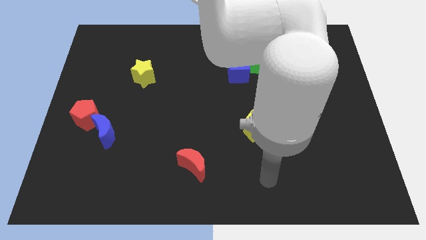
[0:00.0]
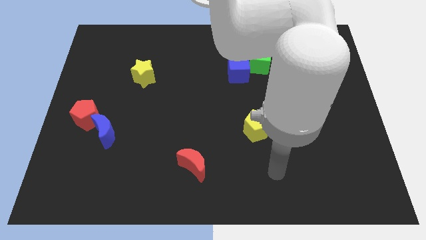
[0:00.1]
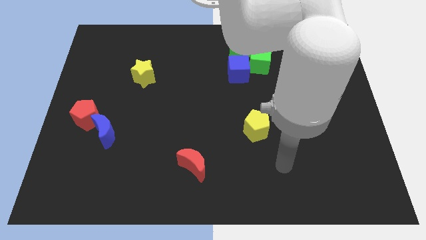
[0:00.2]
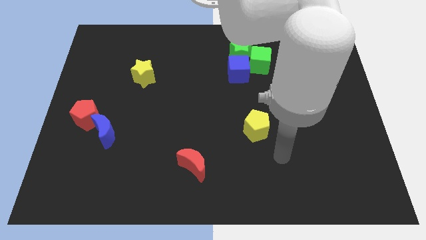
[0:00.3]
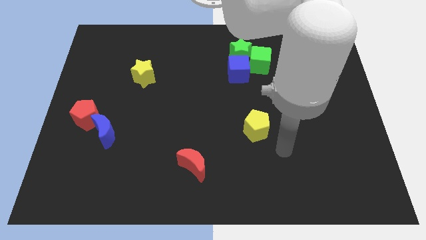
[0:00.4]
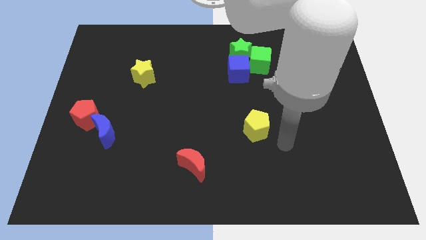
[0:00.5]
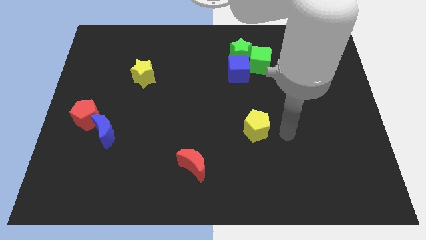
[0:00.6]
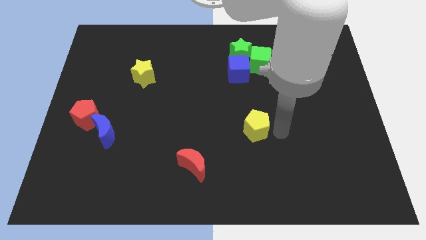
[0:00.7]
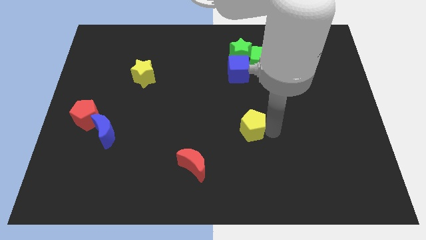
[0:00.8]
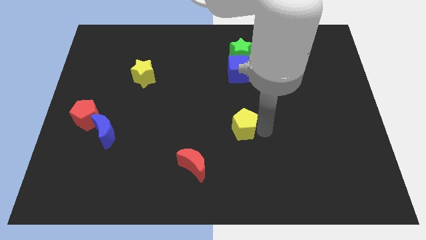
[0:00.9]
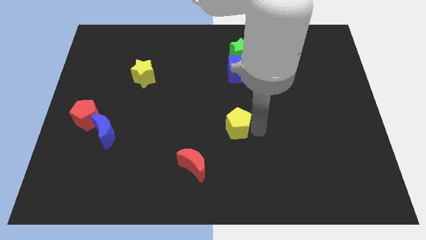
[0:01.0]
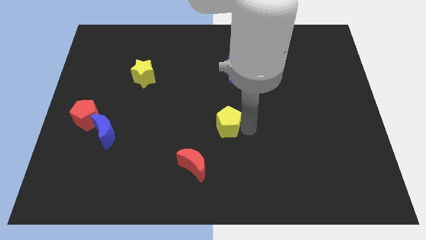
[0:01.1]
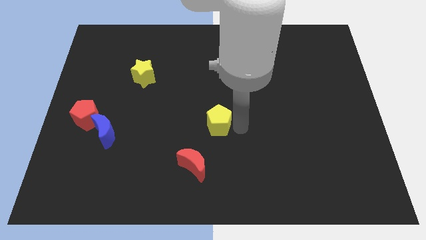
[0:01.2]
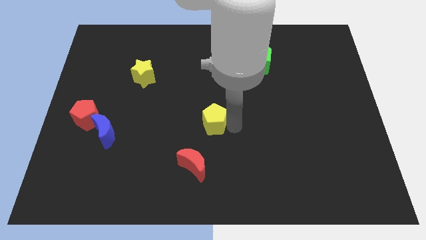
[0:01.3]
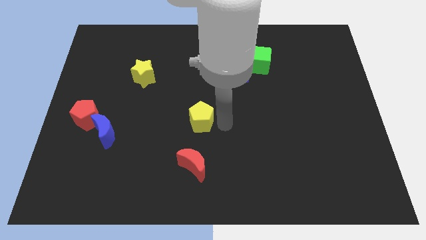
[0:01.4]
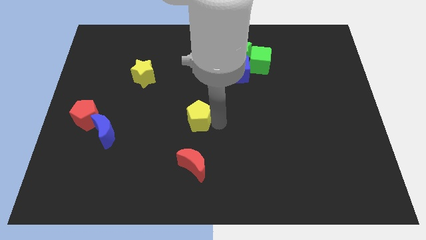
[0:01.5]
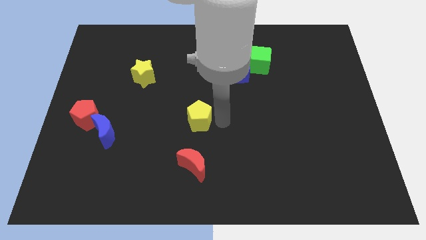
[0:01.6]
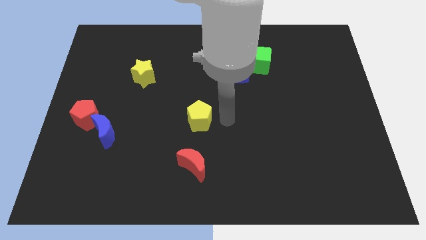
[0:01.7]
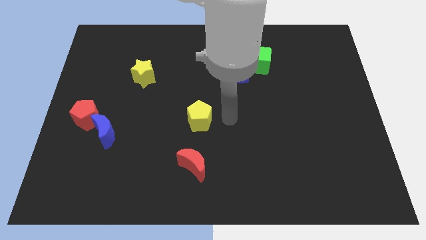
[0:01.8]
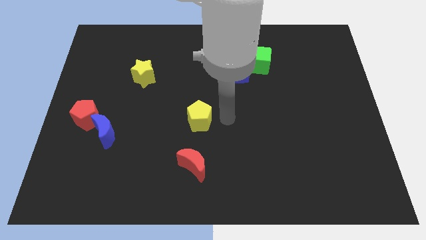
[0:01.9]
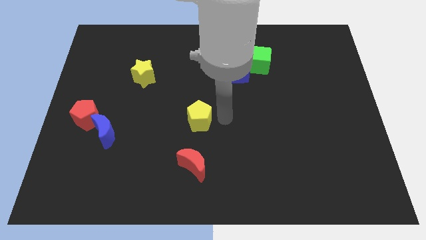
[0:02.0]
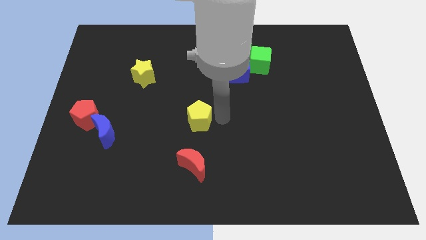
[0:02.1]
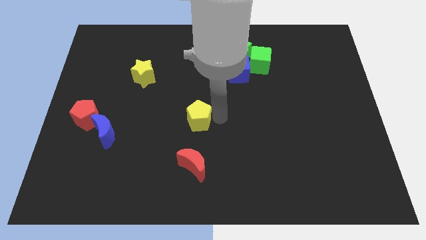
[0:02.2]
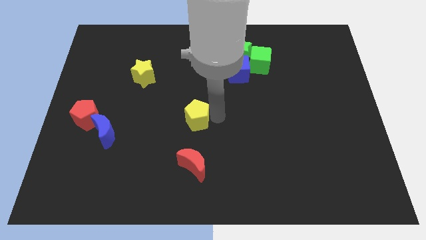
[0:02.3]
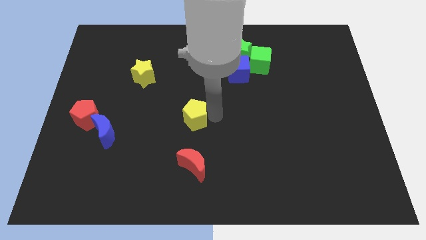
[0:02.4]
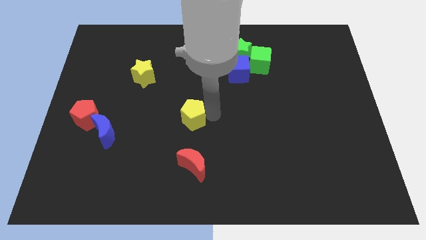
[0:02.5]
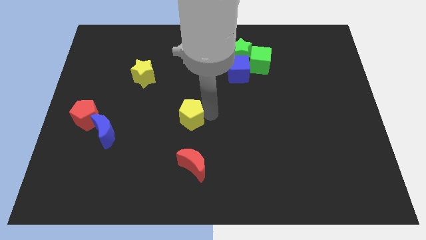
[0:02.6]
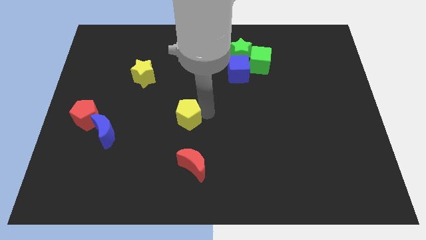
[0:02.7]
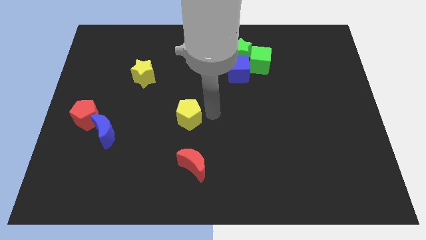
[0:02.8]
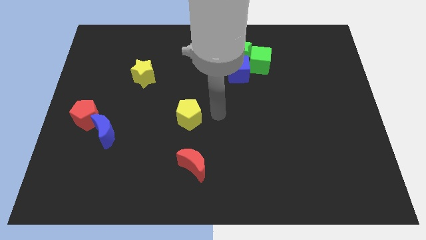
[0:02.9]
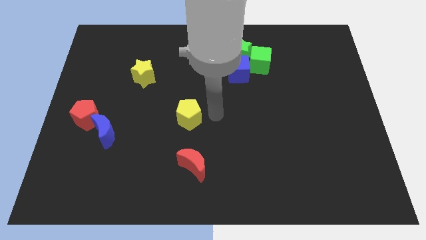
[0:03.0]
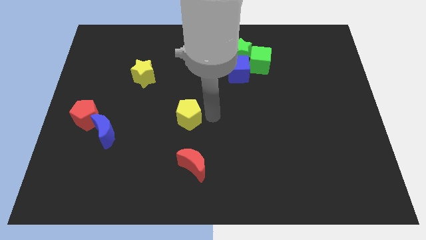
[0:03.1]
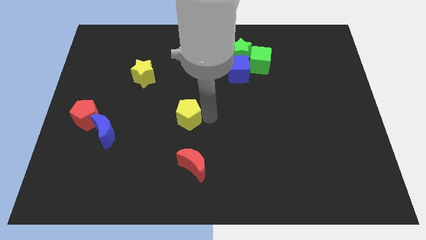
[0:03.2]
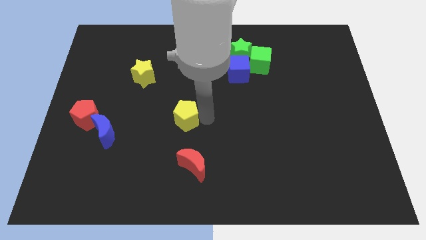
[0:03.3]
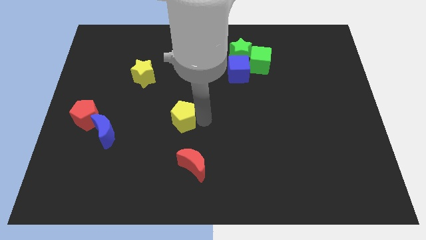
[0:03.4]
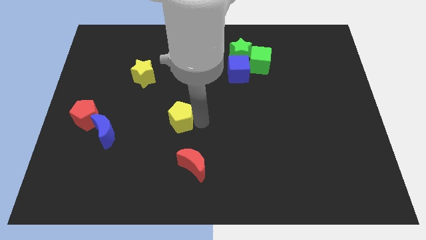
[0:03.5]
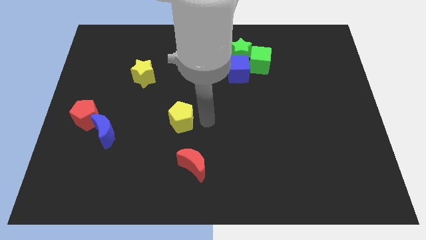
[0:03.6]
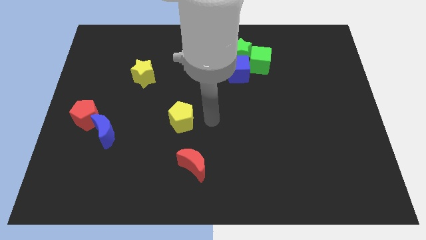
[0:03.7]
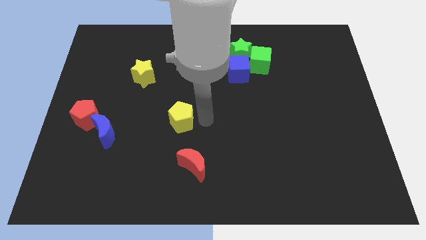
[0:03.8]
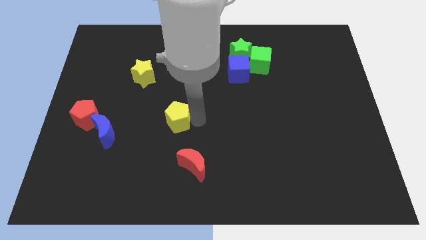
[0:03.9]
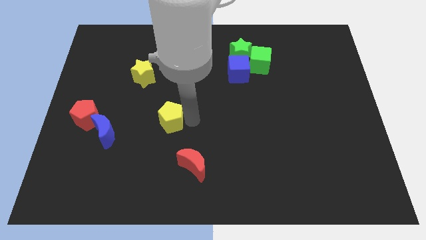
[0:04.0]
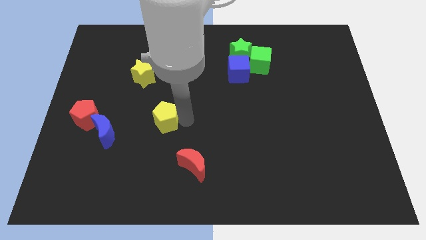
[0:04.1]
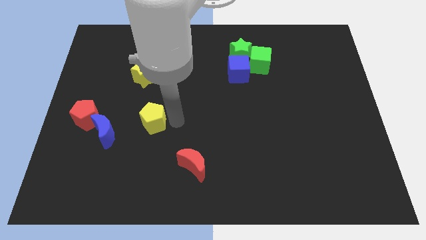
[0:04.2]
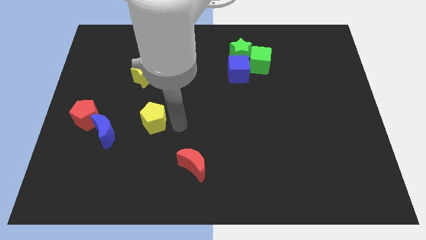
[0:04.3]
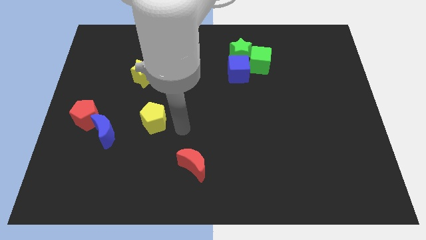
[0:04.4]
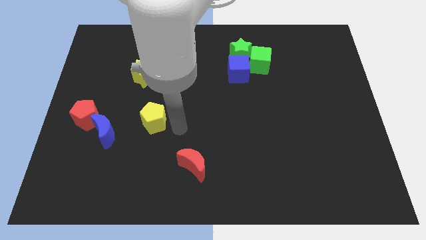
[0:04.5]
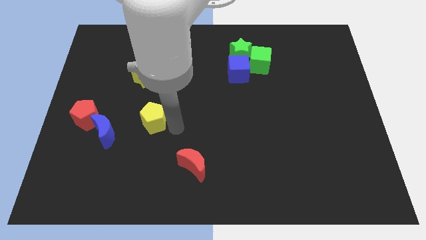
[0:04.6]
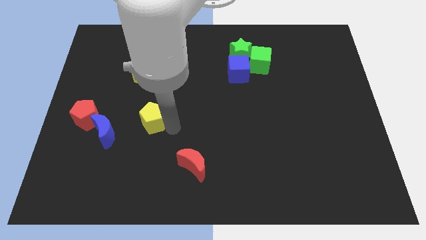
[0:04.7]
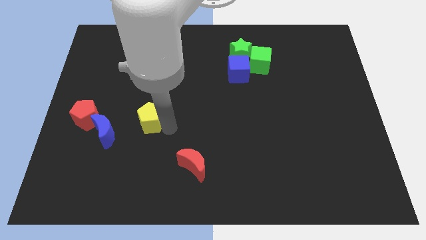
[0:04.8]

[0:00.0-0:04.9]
put the yellow pentagon diagonally up and to the right of the blue moon

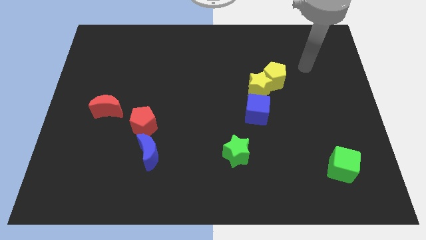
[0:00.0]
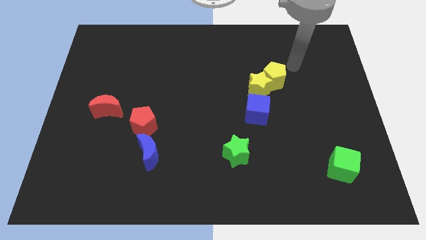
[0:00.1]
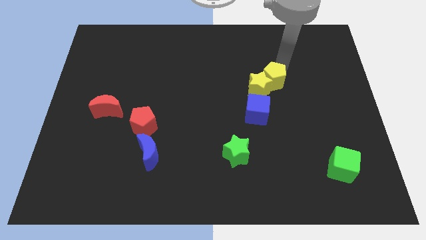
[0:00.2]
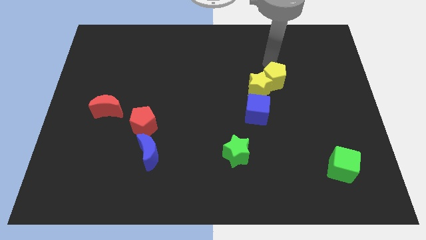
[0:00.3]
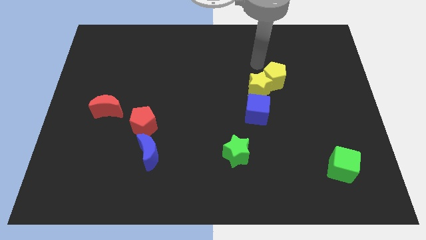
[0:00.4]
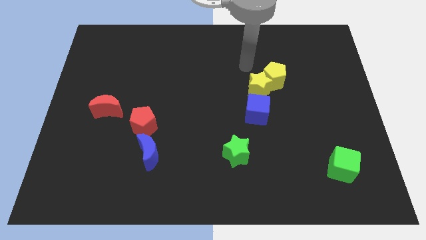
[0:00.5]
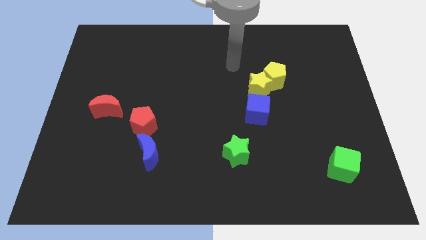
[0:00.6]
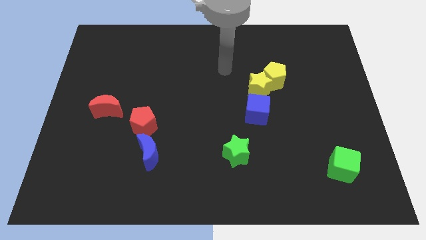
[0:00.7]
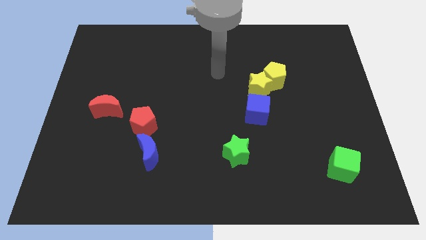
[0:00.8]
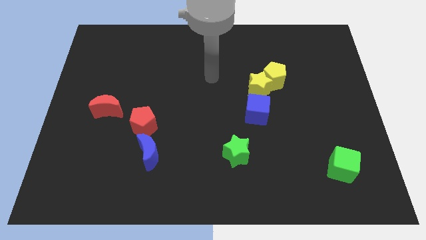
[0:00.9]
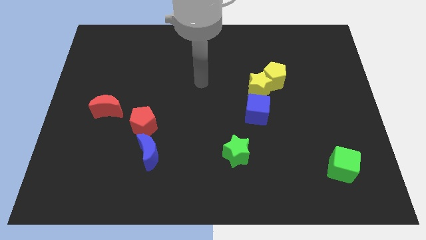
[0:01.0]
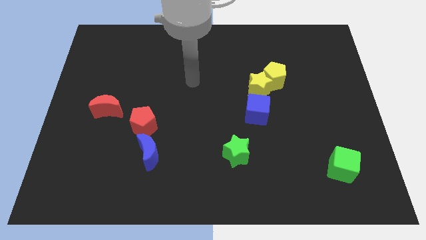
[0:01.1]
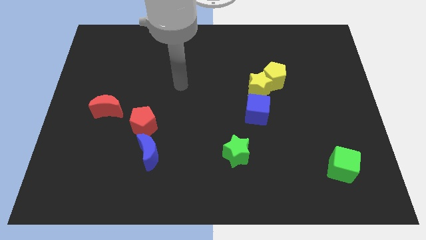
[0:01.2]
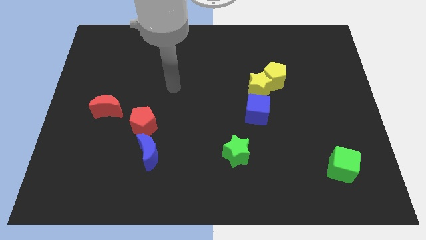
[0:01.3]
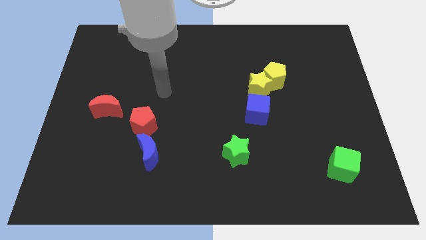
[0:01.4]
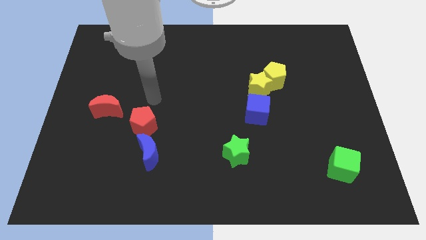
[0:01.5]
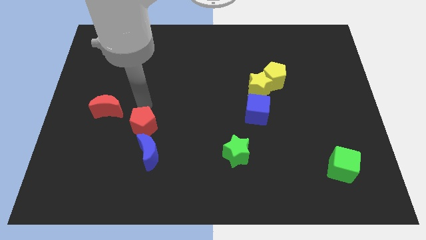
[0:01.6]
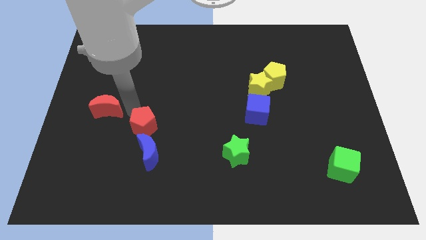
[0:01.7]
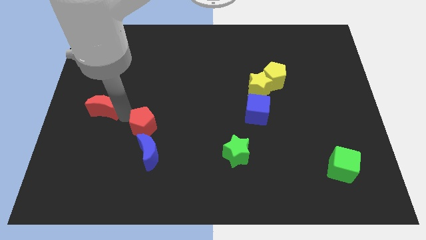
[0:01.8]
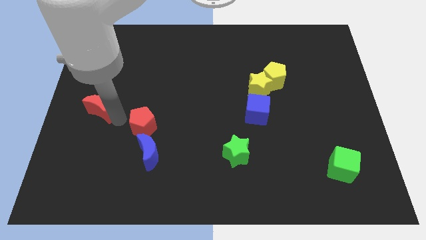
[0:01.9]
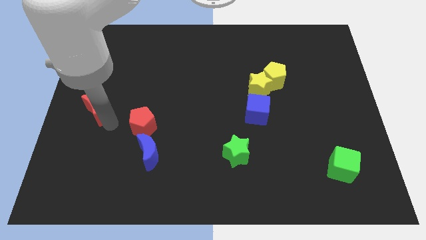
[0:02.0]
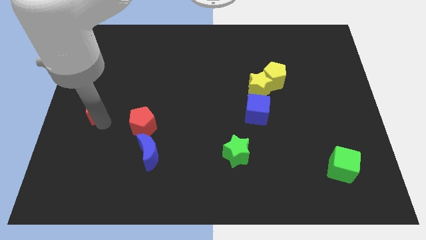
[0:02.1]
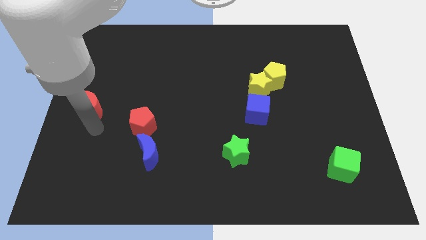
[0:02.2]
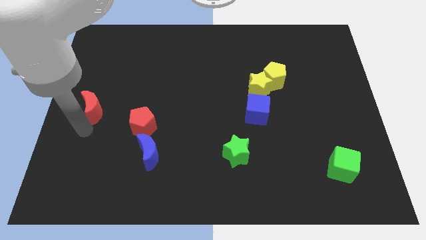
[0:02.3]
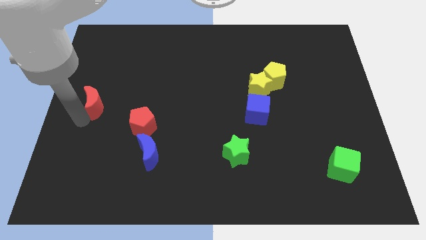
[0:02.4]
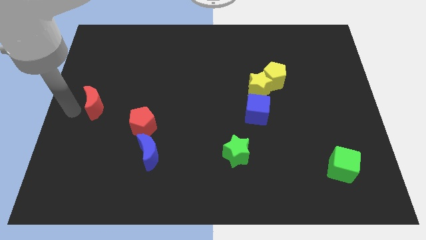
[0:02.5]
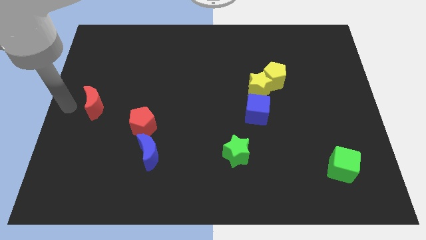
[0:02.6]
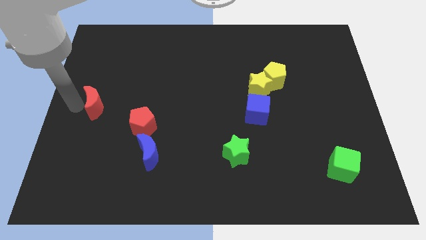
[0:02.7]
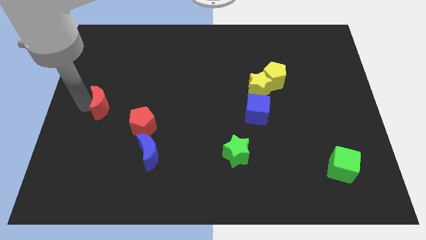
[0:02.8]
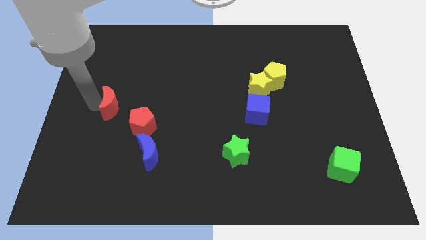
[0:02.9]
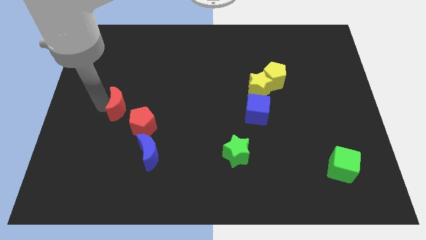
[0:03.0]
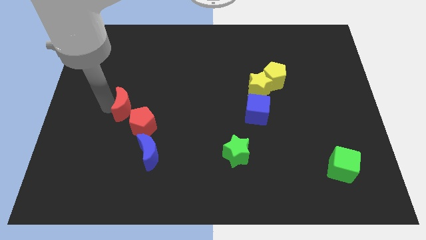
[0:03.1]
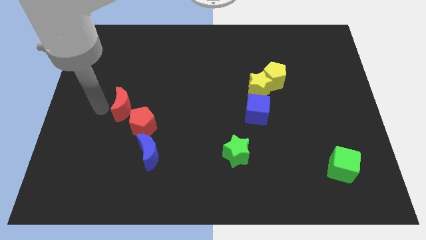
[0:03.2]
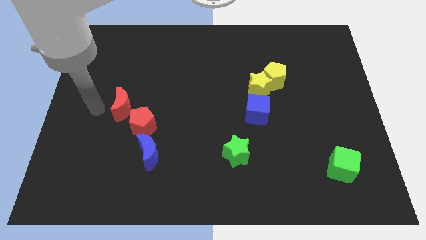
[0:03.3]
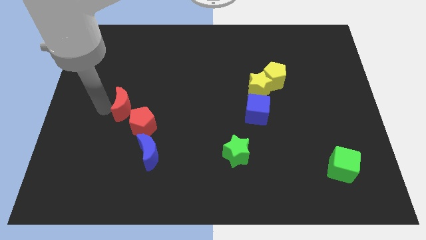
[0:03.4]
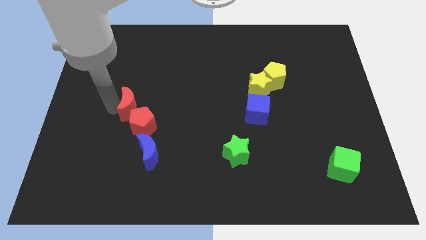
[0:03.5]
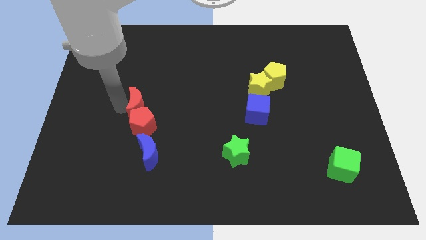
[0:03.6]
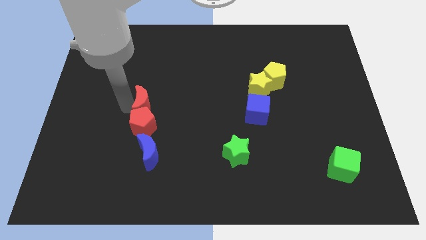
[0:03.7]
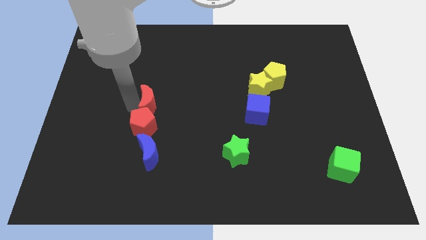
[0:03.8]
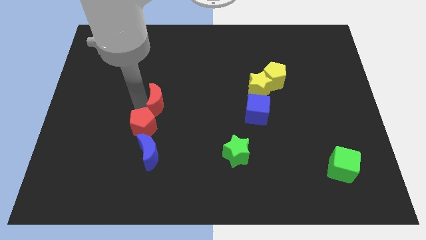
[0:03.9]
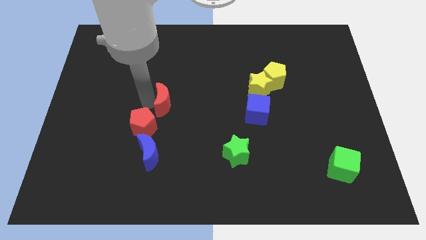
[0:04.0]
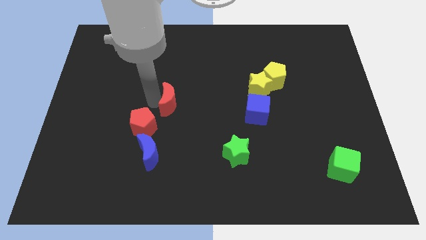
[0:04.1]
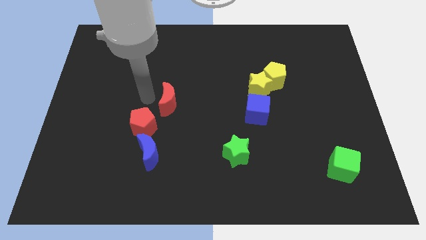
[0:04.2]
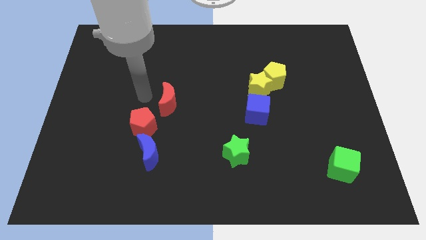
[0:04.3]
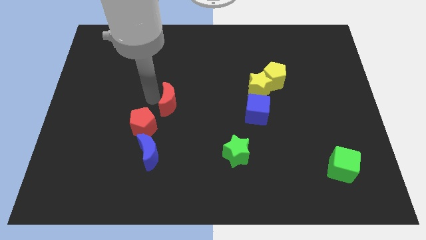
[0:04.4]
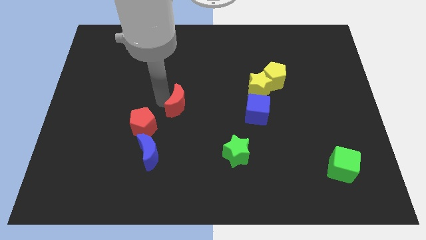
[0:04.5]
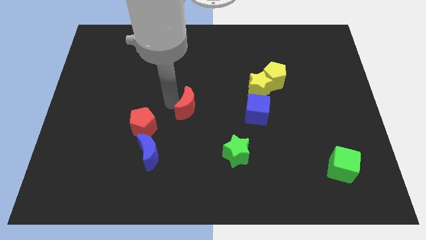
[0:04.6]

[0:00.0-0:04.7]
slide the red moon to the left of the blue cube
